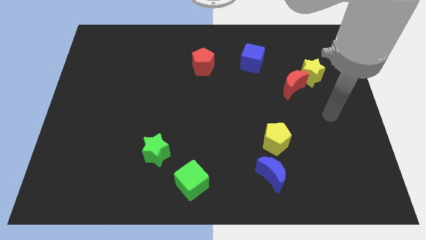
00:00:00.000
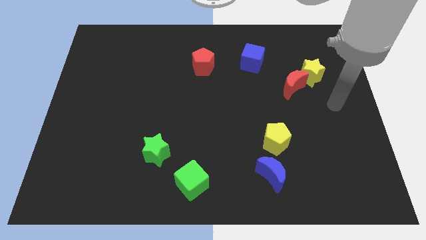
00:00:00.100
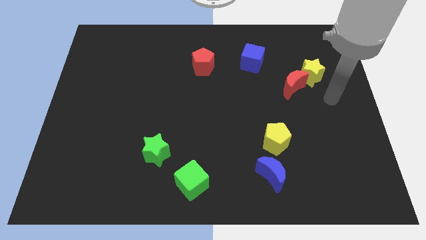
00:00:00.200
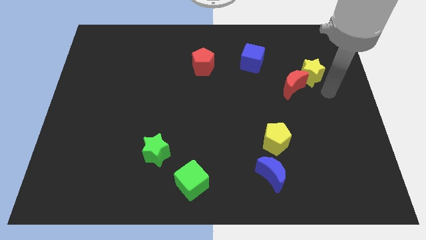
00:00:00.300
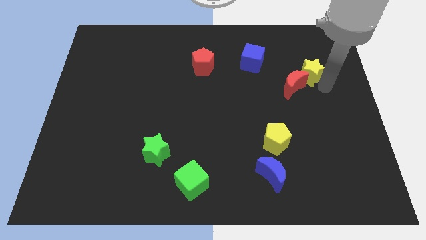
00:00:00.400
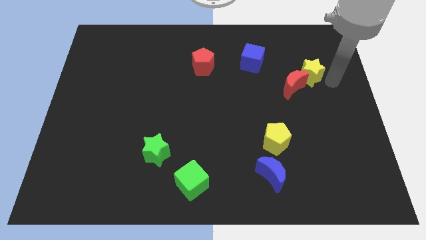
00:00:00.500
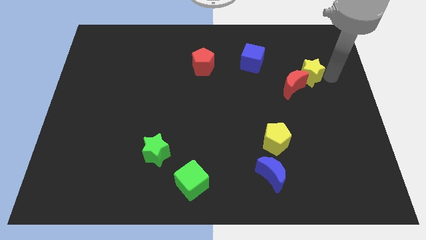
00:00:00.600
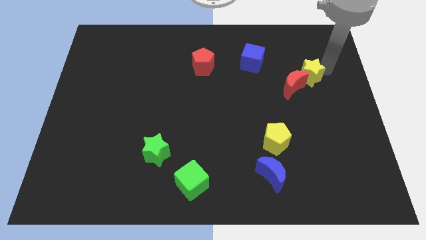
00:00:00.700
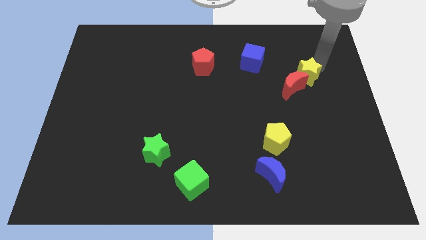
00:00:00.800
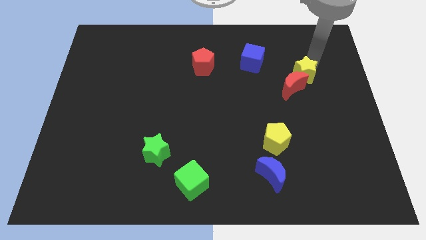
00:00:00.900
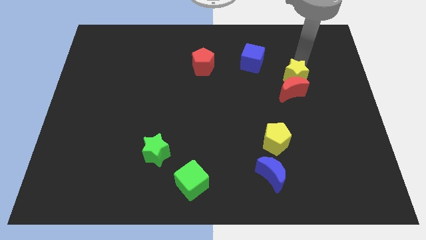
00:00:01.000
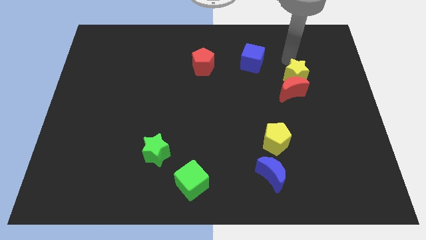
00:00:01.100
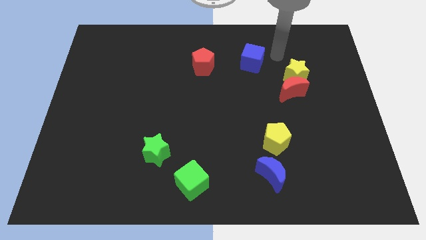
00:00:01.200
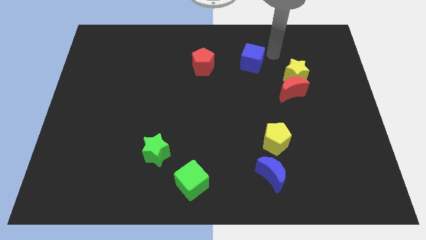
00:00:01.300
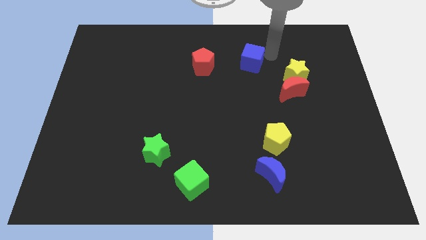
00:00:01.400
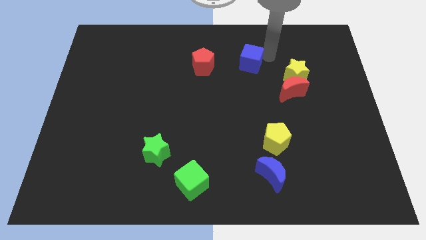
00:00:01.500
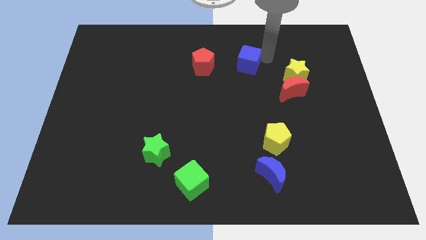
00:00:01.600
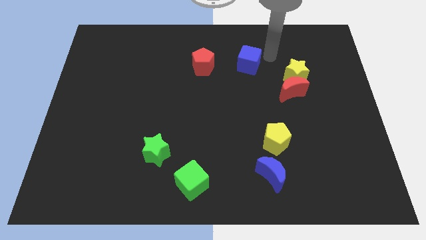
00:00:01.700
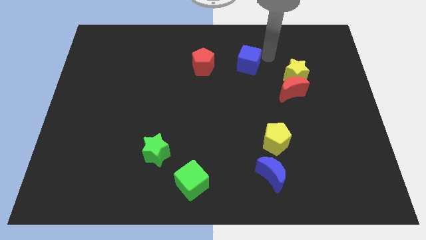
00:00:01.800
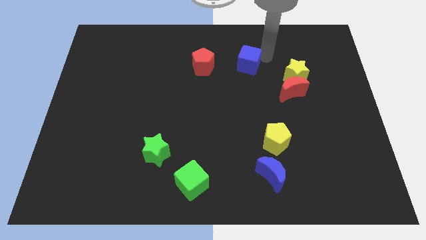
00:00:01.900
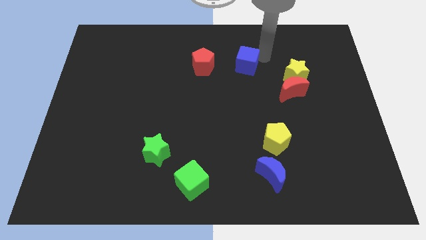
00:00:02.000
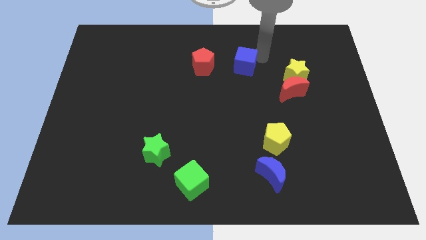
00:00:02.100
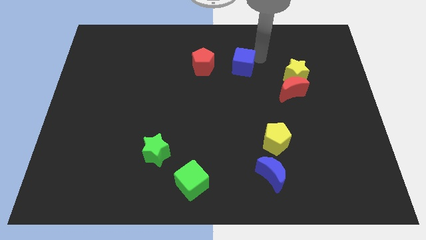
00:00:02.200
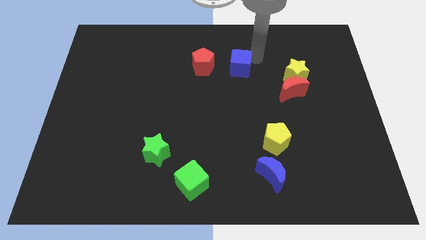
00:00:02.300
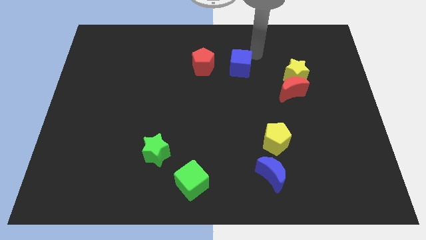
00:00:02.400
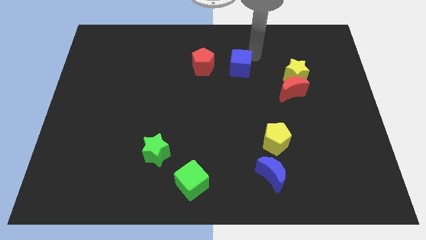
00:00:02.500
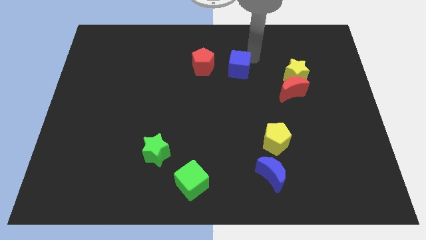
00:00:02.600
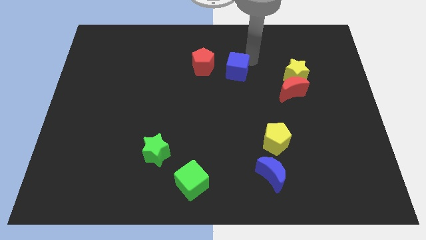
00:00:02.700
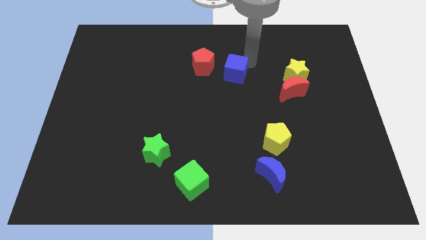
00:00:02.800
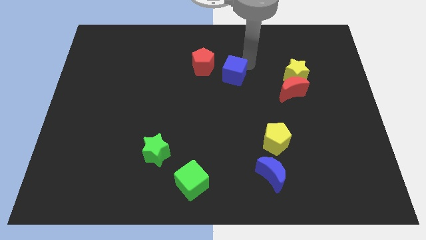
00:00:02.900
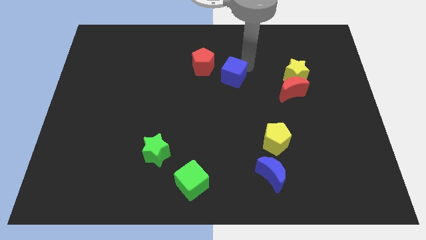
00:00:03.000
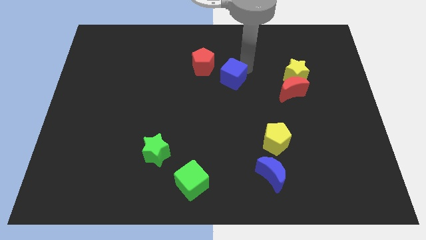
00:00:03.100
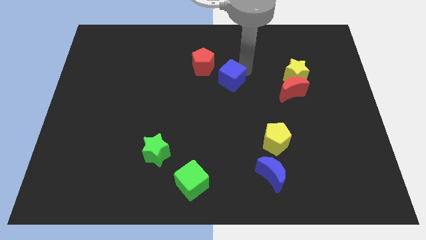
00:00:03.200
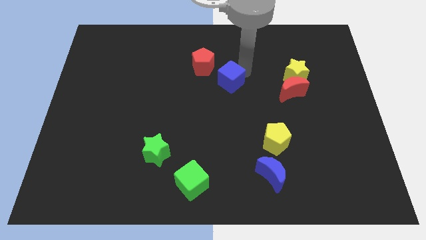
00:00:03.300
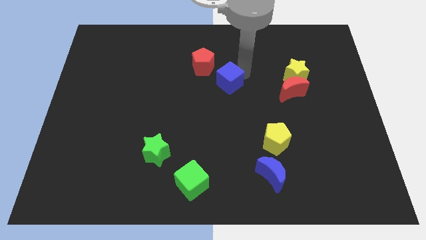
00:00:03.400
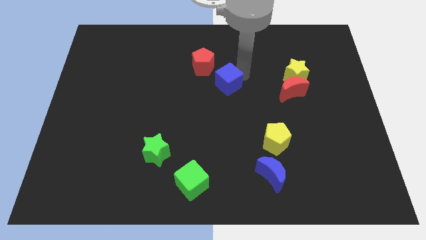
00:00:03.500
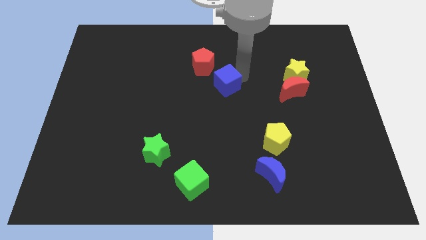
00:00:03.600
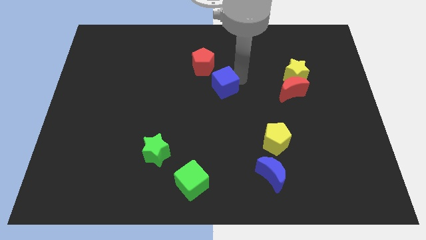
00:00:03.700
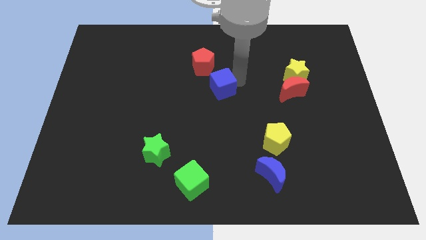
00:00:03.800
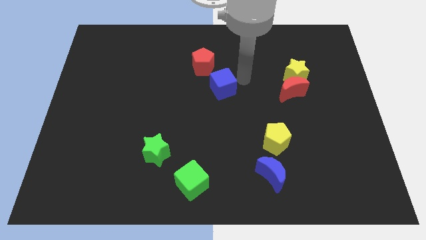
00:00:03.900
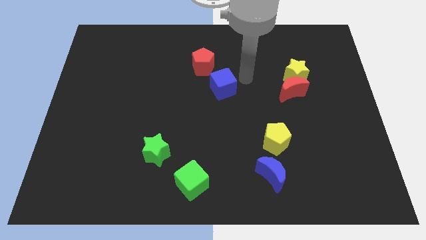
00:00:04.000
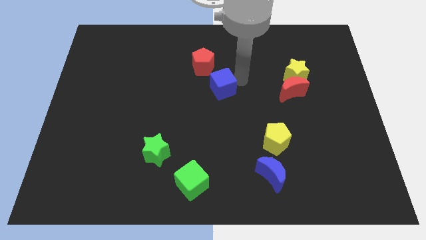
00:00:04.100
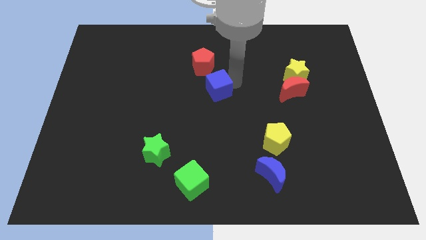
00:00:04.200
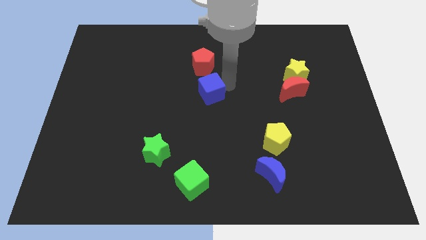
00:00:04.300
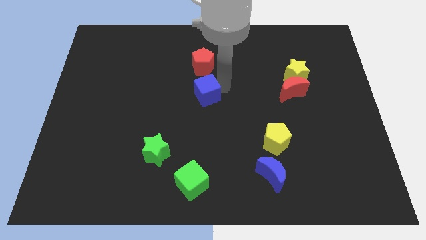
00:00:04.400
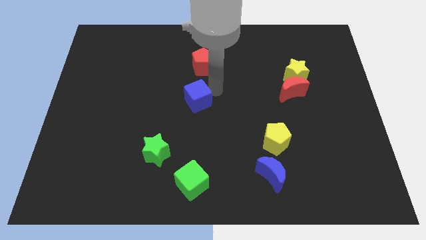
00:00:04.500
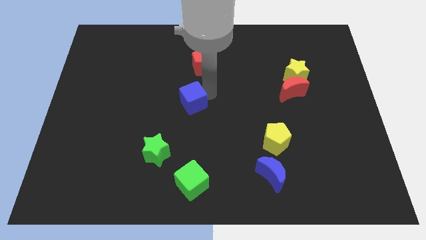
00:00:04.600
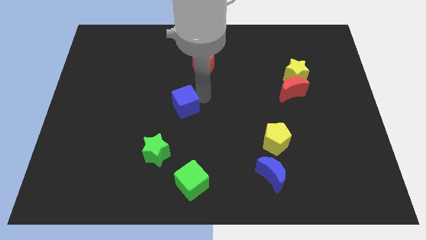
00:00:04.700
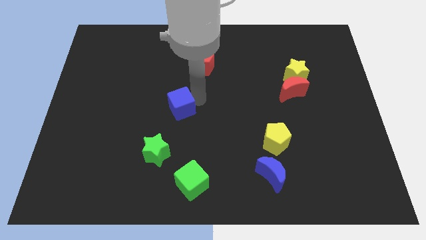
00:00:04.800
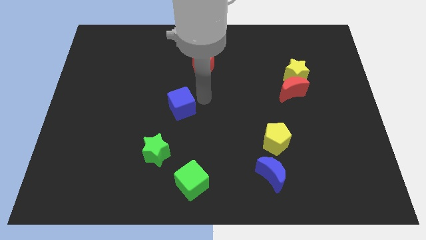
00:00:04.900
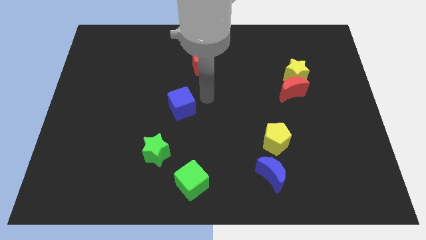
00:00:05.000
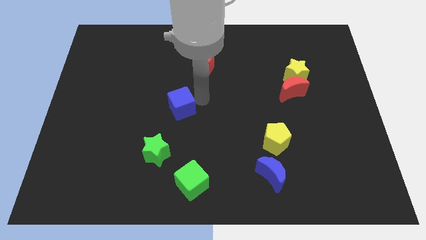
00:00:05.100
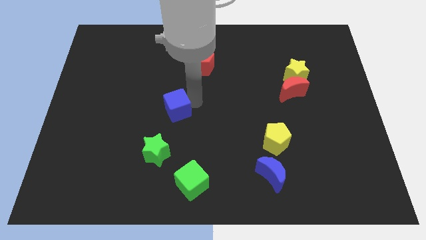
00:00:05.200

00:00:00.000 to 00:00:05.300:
move the blue cube to the top of the green star
